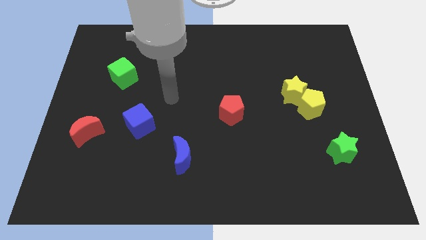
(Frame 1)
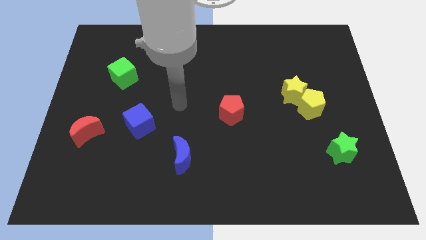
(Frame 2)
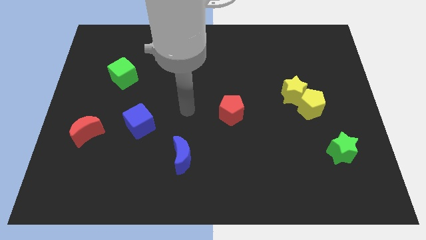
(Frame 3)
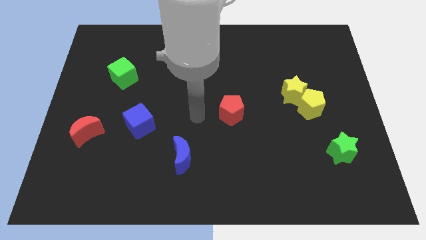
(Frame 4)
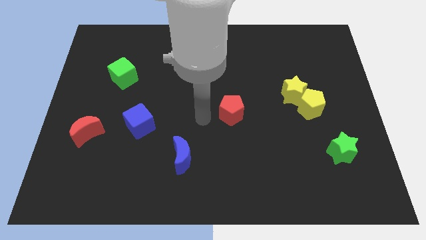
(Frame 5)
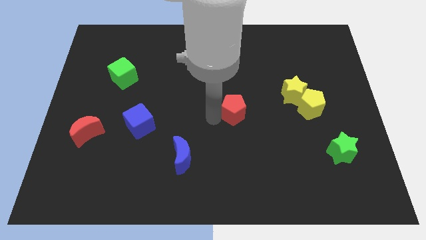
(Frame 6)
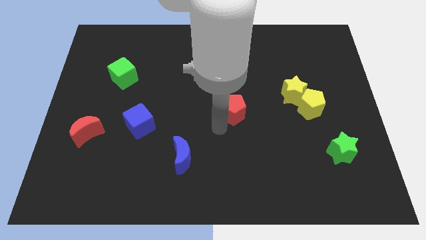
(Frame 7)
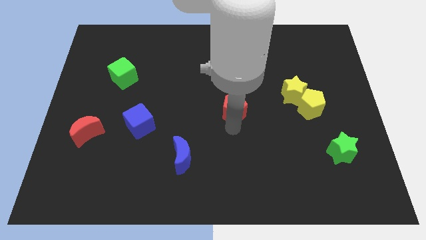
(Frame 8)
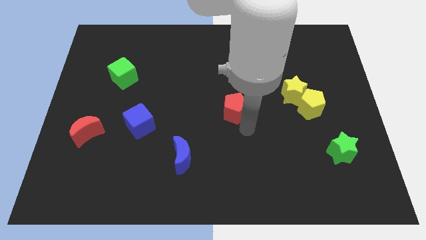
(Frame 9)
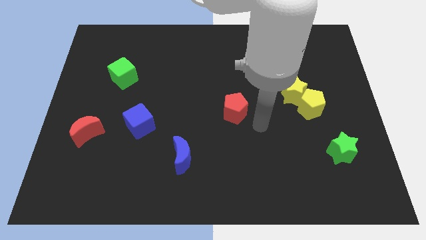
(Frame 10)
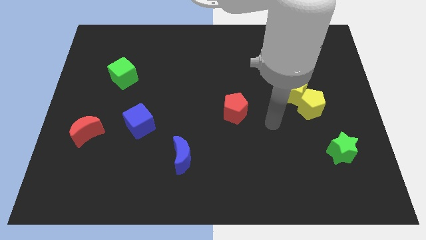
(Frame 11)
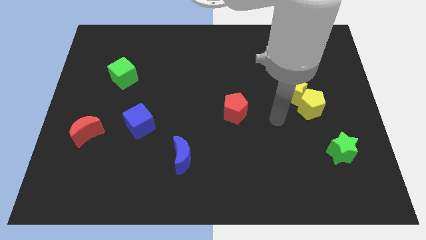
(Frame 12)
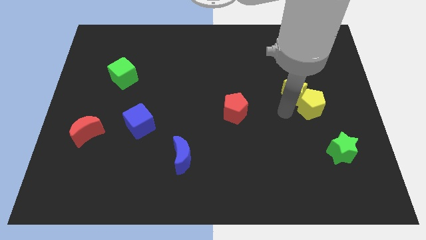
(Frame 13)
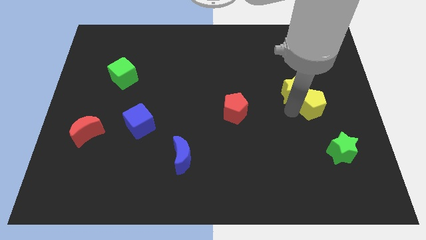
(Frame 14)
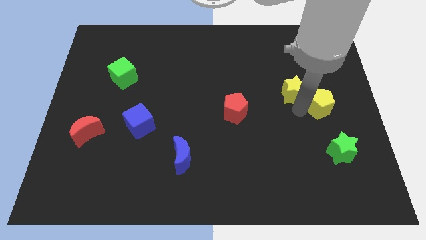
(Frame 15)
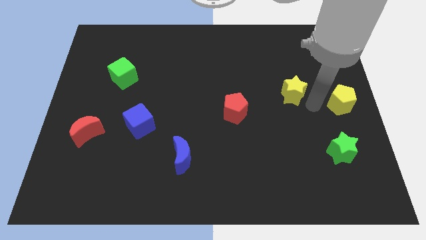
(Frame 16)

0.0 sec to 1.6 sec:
pull the yellow star apart from the yellow pentagon

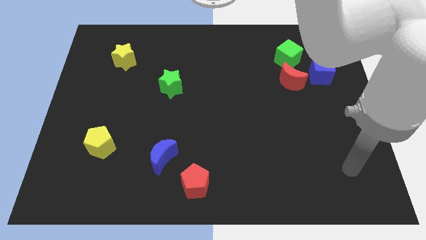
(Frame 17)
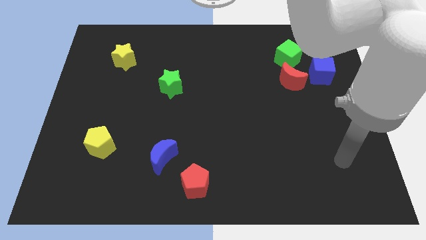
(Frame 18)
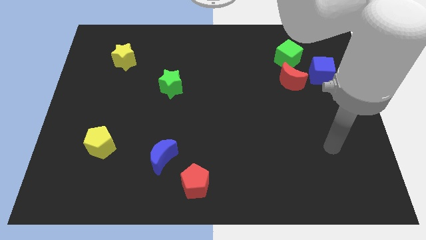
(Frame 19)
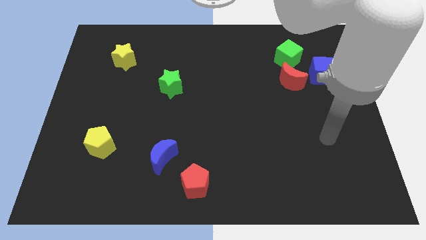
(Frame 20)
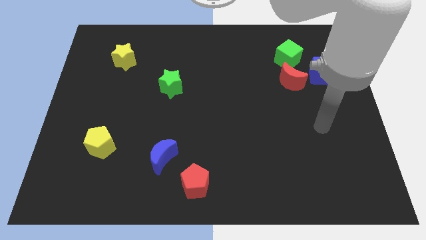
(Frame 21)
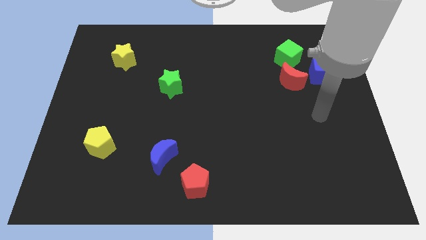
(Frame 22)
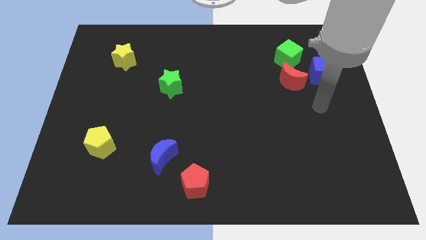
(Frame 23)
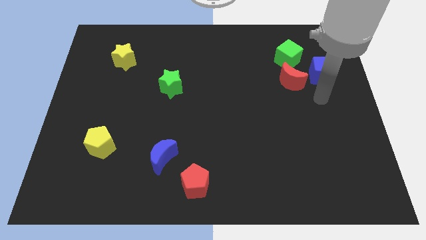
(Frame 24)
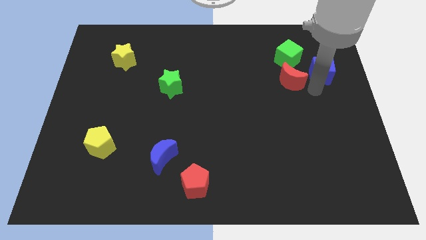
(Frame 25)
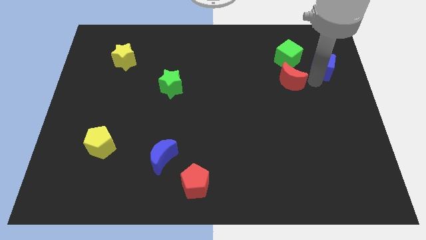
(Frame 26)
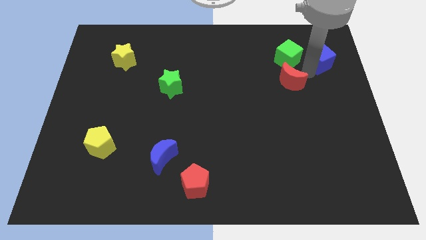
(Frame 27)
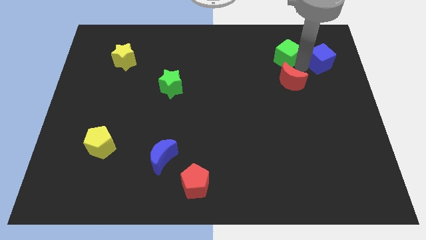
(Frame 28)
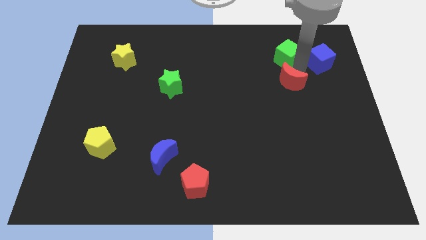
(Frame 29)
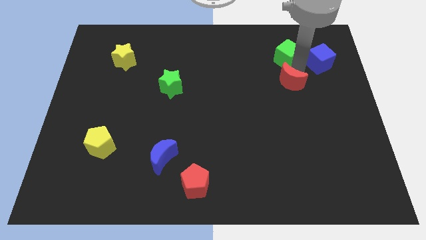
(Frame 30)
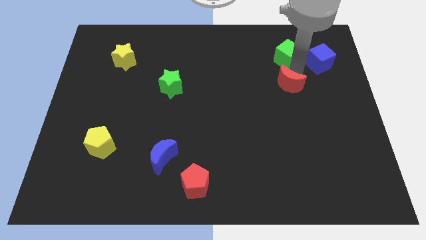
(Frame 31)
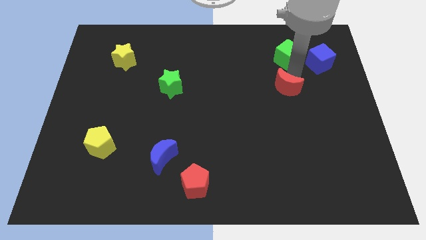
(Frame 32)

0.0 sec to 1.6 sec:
pull the red moon apart from the green cube and blue cube

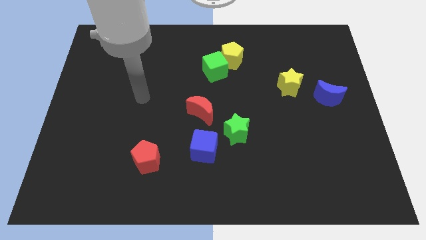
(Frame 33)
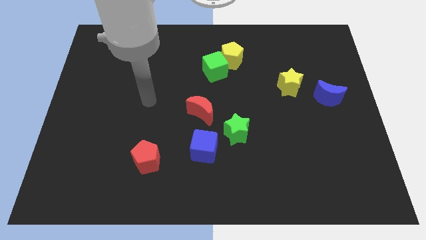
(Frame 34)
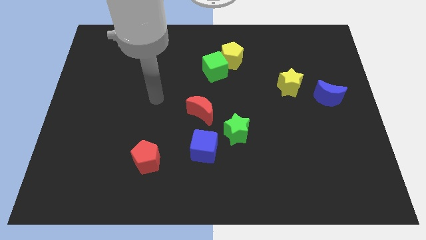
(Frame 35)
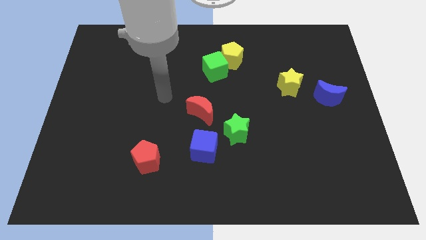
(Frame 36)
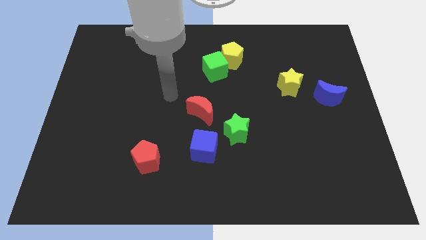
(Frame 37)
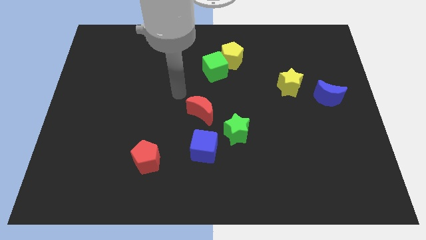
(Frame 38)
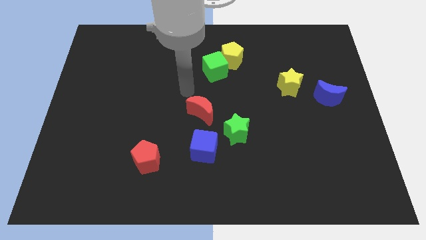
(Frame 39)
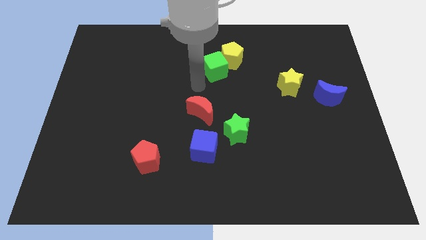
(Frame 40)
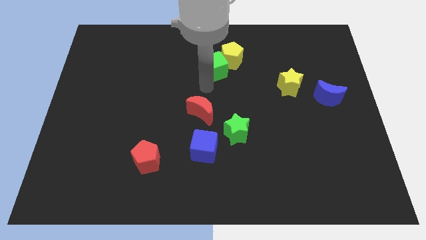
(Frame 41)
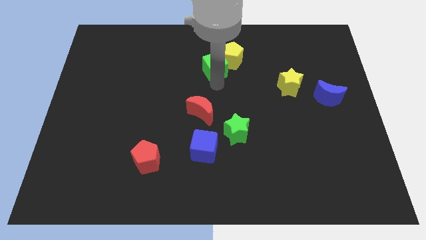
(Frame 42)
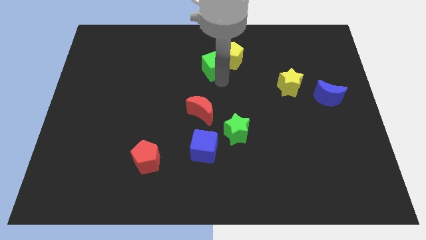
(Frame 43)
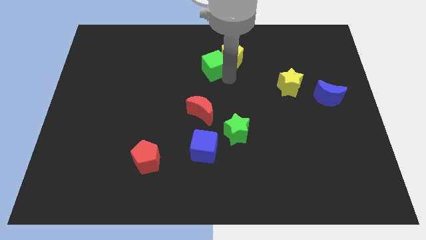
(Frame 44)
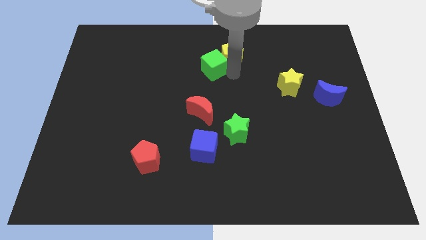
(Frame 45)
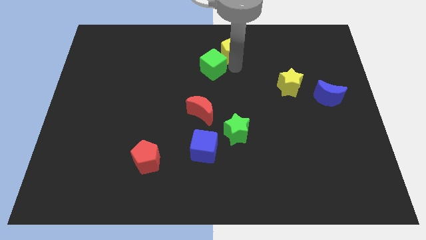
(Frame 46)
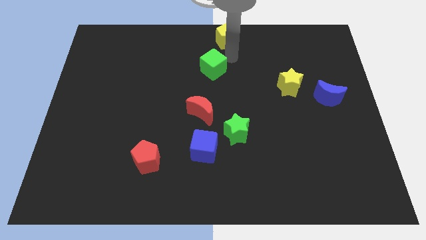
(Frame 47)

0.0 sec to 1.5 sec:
pull the green cube apart from the yellow pentagon

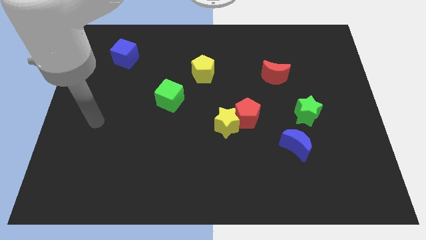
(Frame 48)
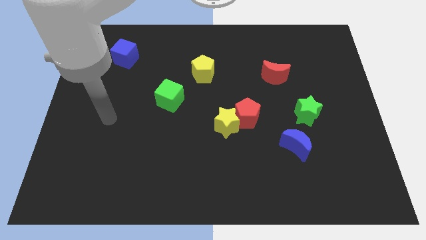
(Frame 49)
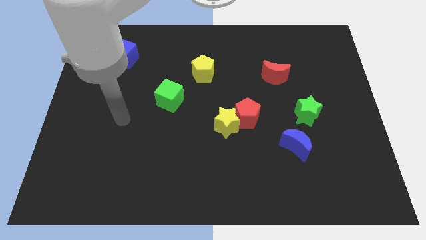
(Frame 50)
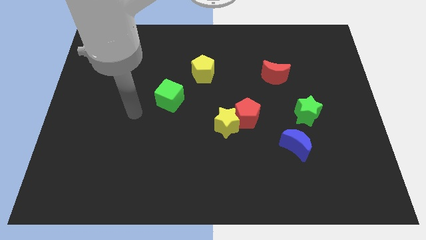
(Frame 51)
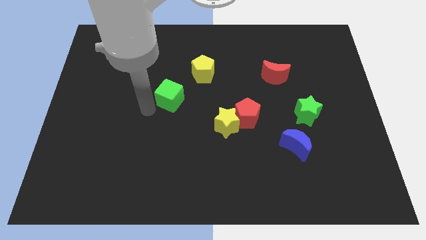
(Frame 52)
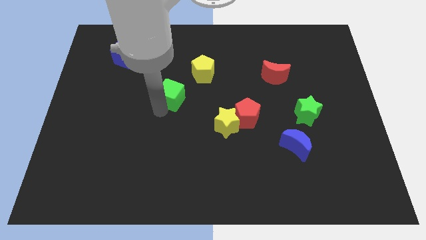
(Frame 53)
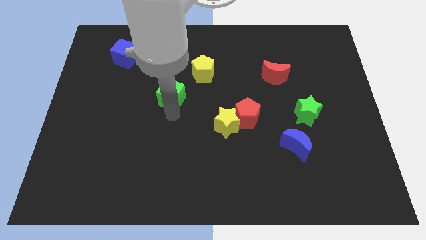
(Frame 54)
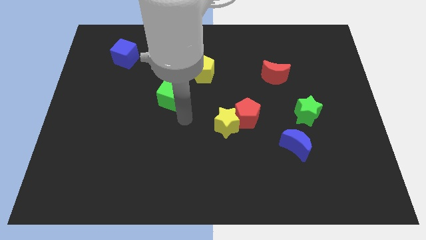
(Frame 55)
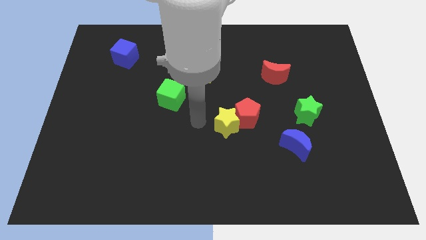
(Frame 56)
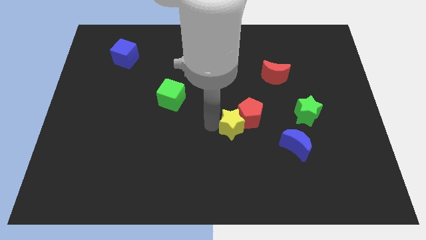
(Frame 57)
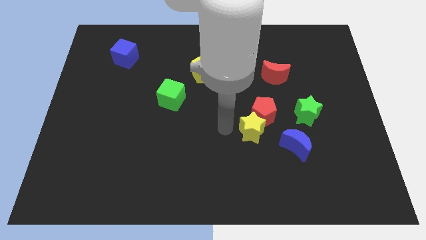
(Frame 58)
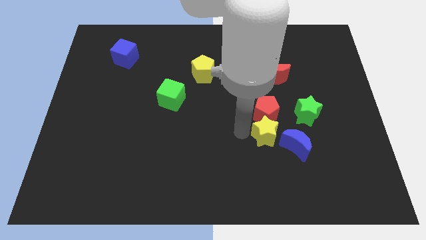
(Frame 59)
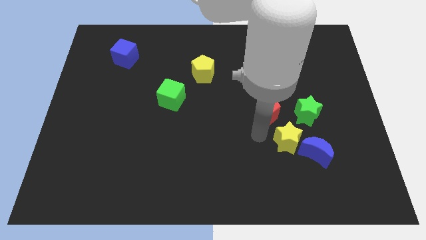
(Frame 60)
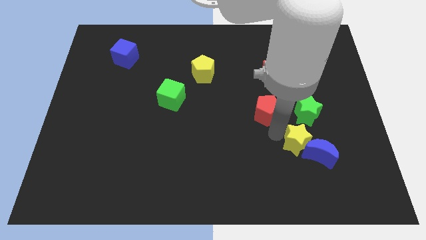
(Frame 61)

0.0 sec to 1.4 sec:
pull the red pentagon apart from the yellow star

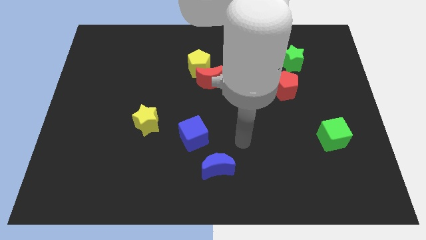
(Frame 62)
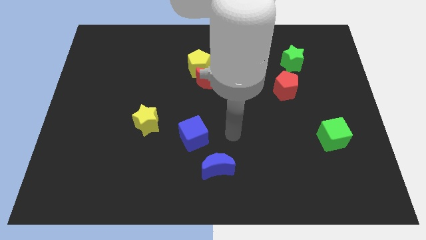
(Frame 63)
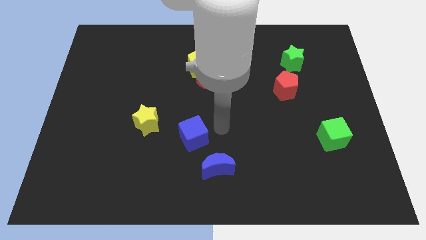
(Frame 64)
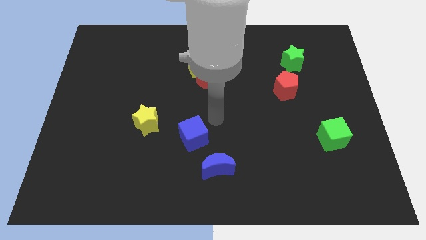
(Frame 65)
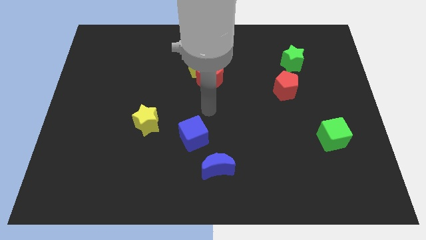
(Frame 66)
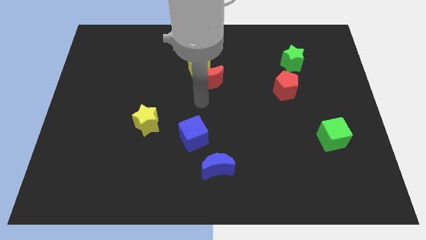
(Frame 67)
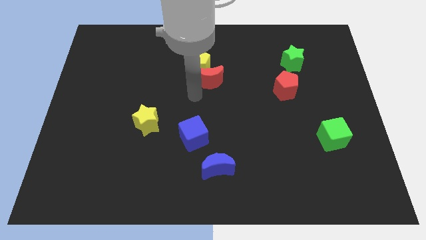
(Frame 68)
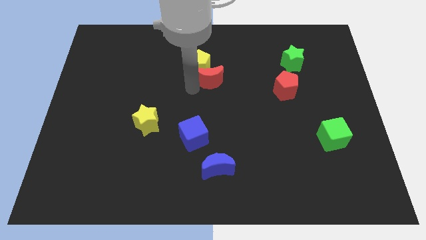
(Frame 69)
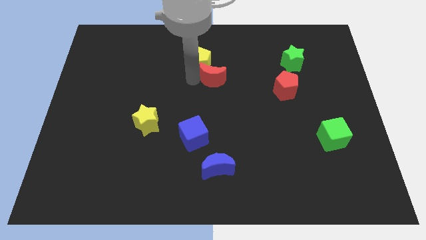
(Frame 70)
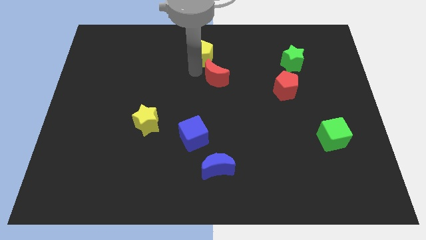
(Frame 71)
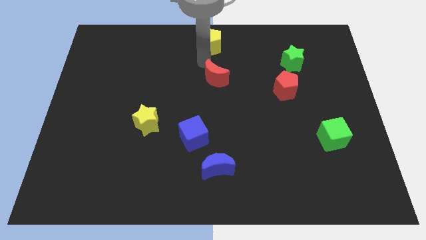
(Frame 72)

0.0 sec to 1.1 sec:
move the red moon away from the yellow pentagon

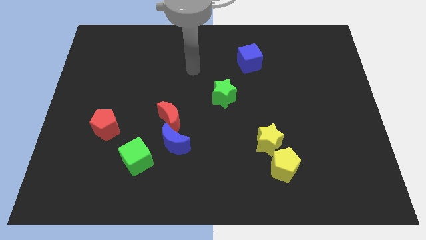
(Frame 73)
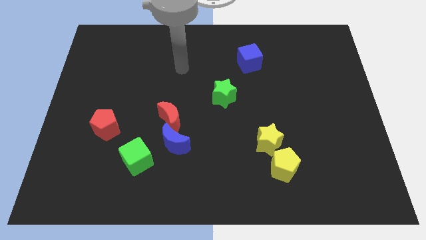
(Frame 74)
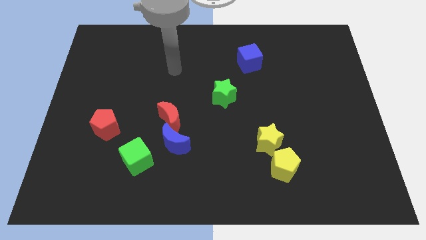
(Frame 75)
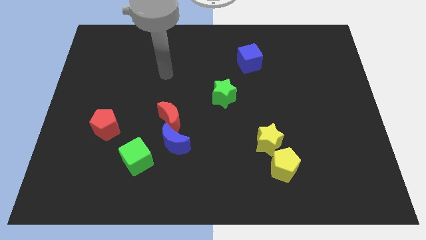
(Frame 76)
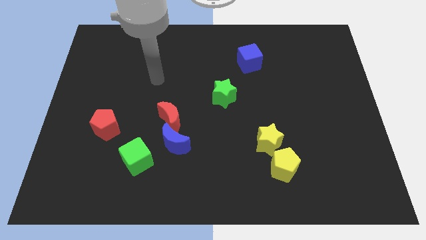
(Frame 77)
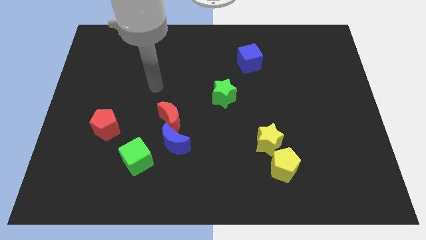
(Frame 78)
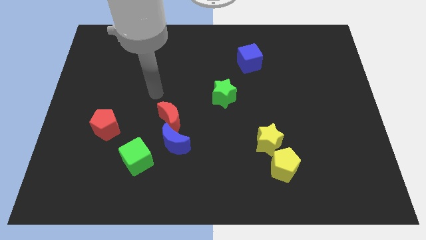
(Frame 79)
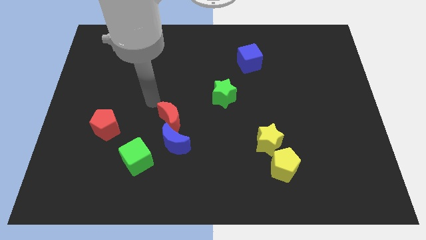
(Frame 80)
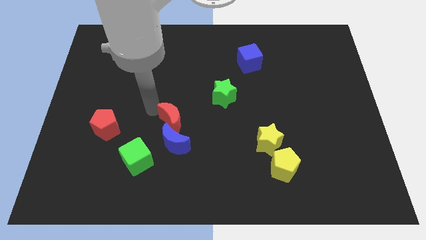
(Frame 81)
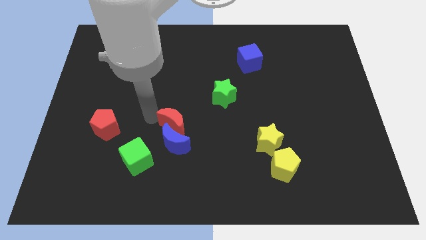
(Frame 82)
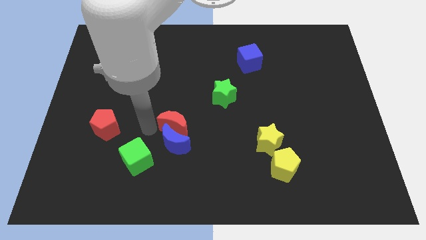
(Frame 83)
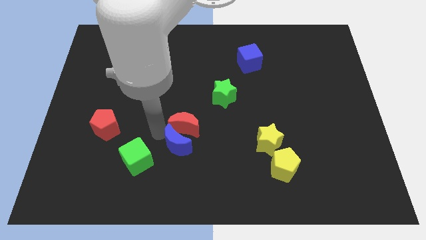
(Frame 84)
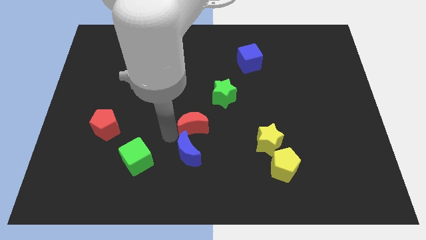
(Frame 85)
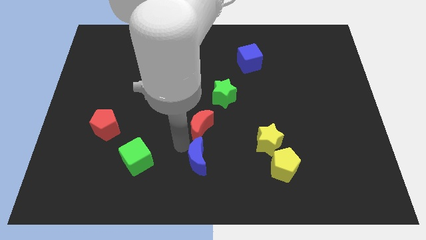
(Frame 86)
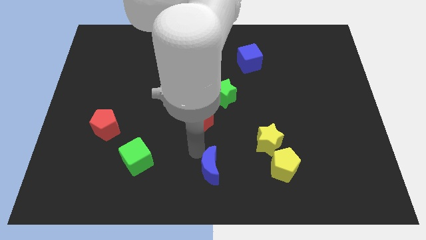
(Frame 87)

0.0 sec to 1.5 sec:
move the red moon away from the blue moon

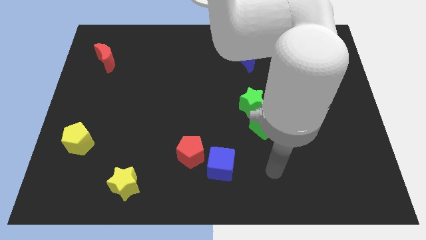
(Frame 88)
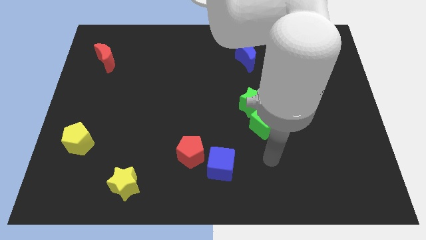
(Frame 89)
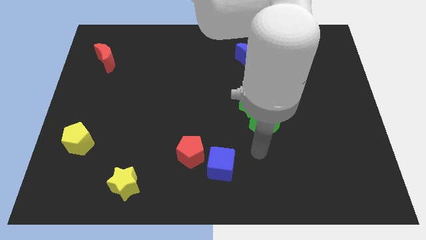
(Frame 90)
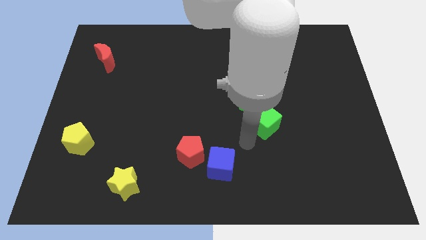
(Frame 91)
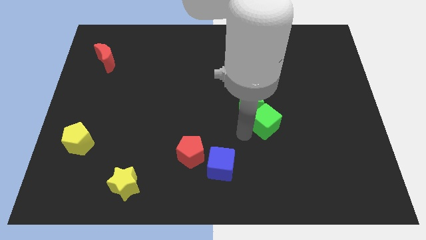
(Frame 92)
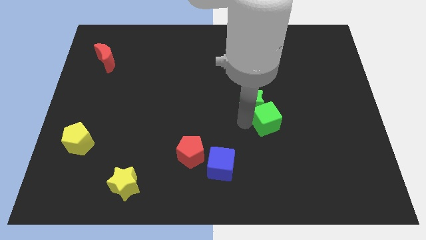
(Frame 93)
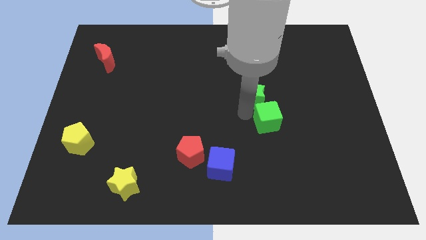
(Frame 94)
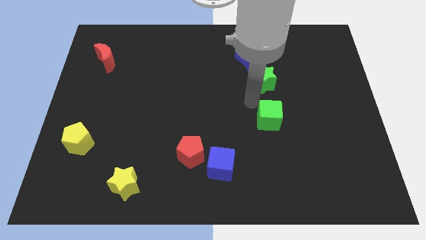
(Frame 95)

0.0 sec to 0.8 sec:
pull the green cube apart from the green star

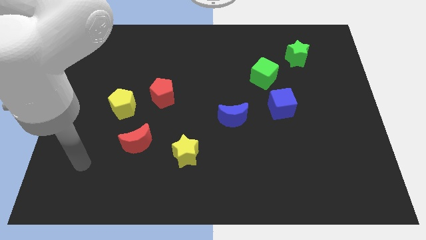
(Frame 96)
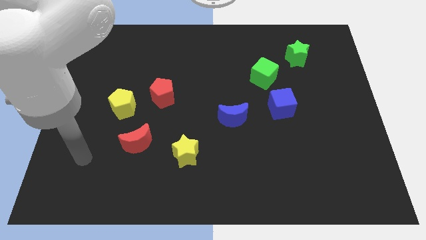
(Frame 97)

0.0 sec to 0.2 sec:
separate the red pentagon from the yellow pentagon
